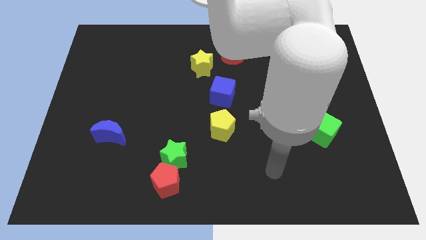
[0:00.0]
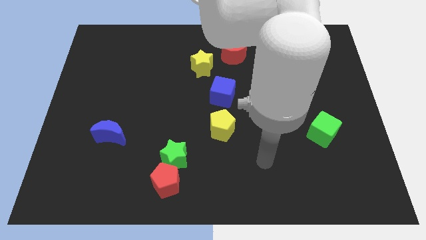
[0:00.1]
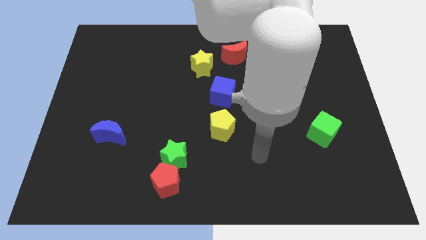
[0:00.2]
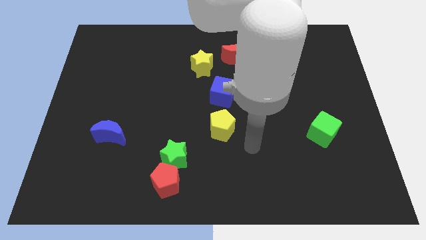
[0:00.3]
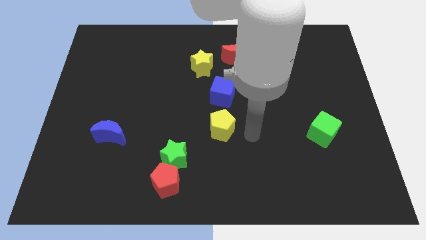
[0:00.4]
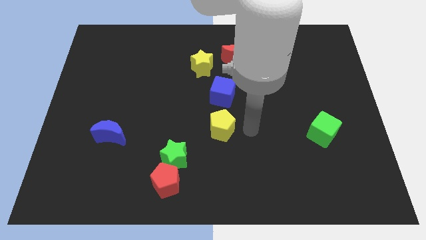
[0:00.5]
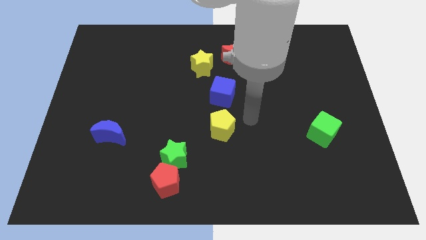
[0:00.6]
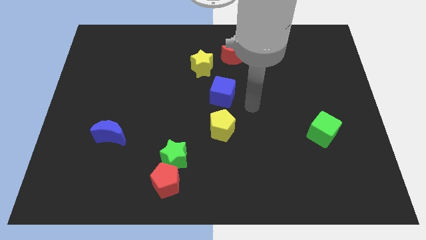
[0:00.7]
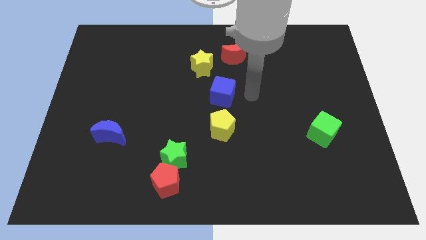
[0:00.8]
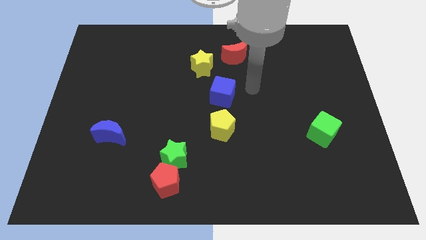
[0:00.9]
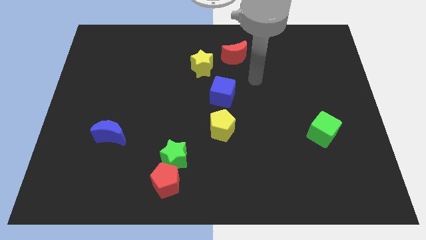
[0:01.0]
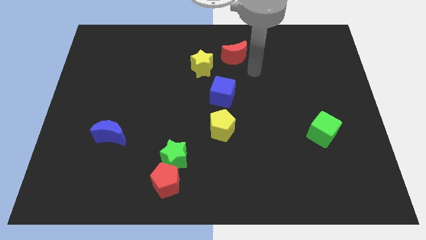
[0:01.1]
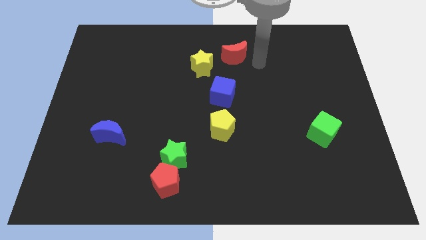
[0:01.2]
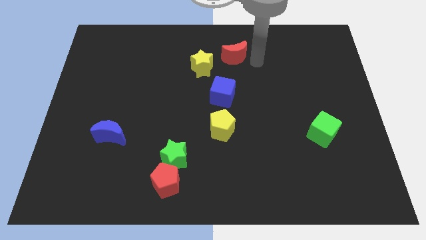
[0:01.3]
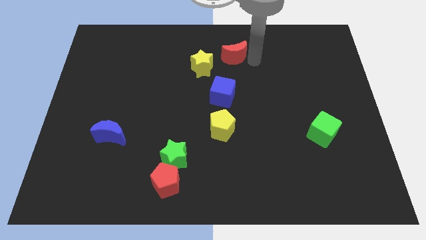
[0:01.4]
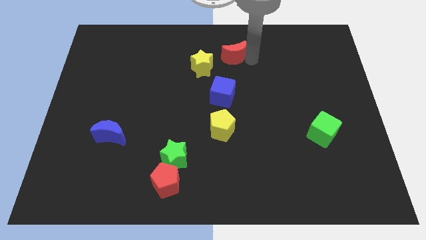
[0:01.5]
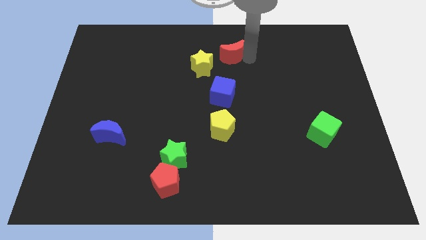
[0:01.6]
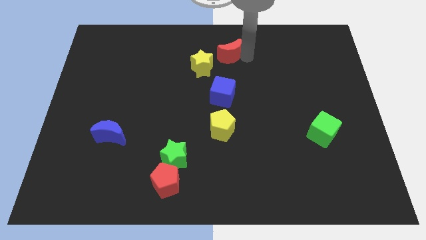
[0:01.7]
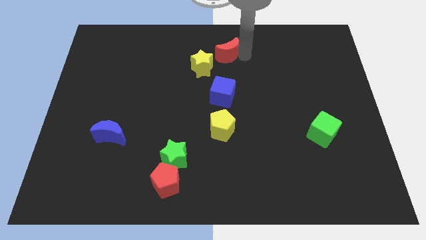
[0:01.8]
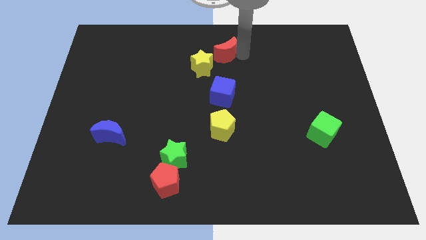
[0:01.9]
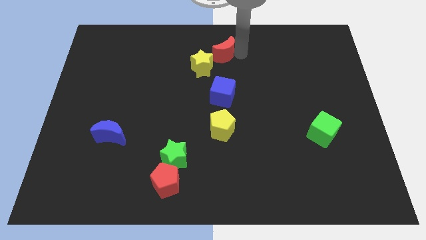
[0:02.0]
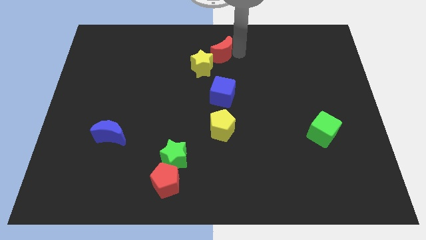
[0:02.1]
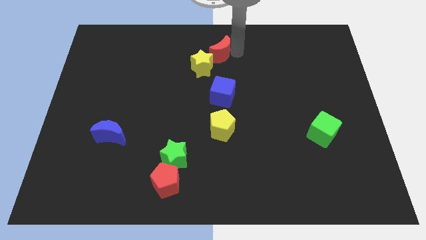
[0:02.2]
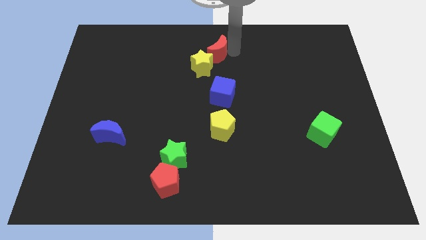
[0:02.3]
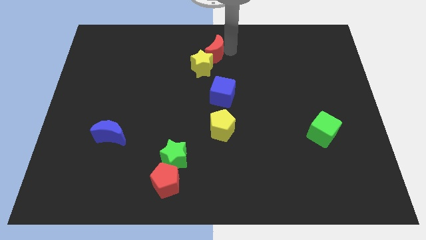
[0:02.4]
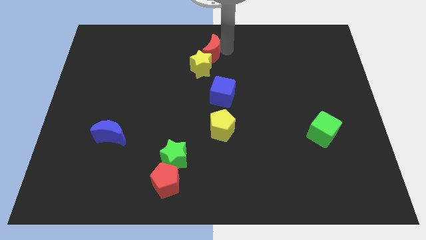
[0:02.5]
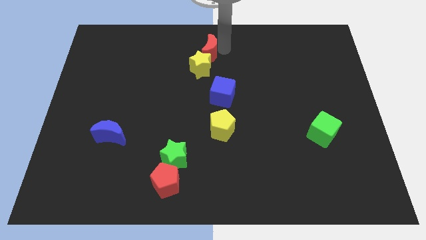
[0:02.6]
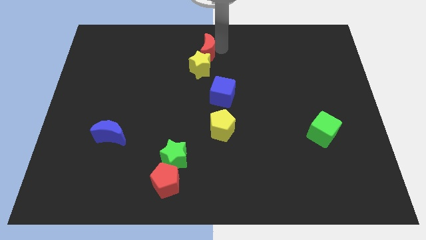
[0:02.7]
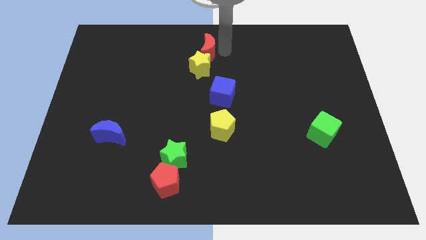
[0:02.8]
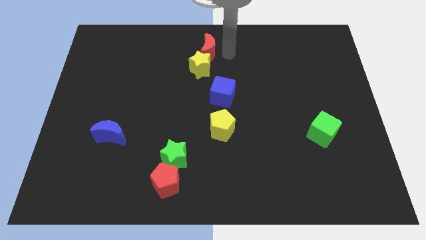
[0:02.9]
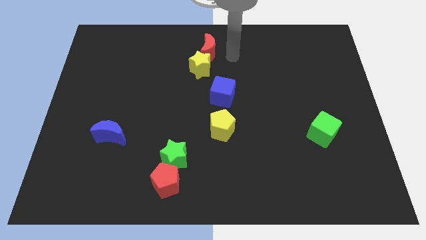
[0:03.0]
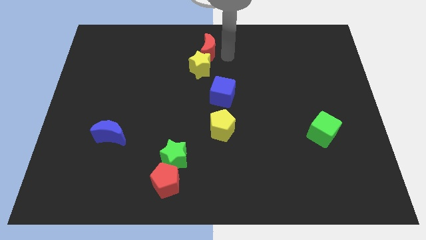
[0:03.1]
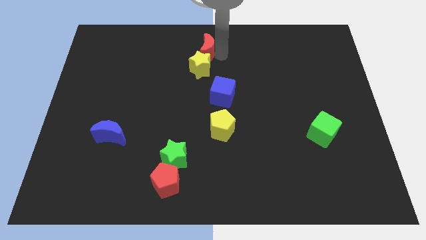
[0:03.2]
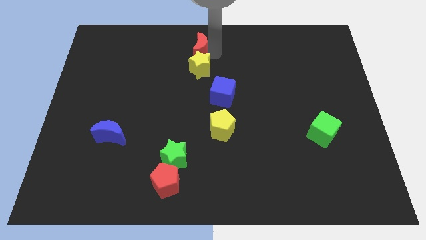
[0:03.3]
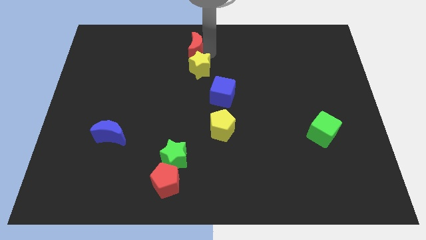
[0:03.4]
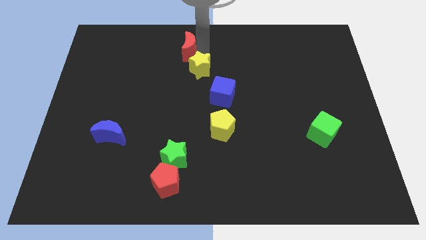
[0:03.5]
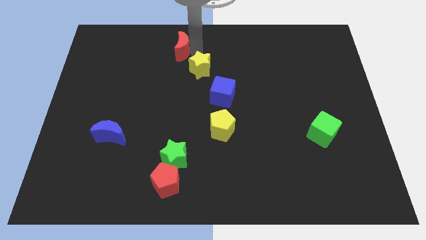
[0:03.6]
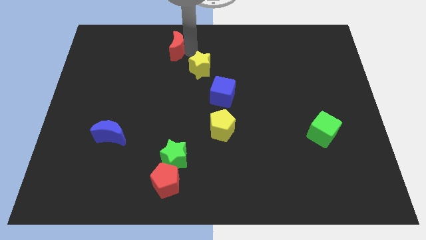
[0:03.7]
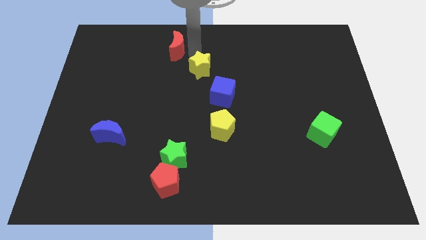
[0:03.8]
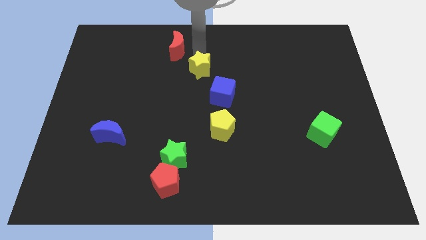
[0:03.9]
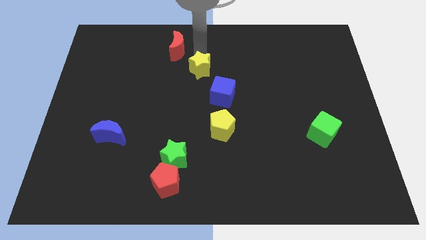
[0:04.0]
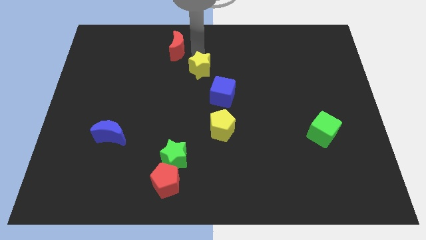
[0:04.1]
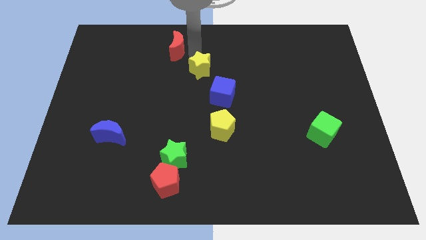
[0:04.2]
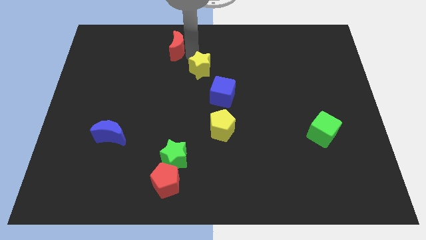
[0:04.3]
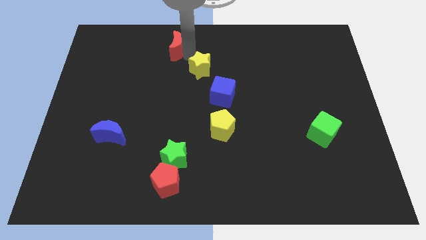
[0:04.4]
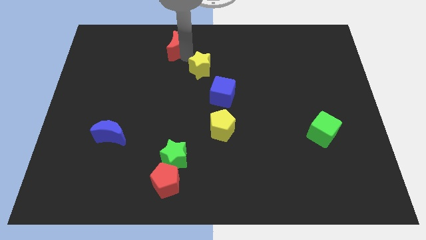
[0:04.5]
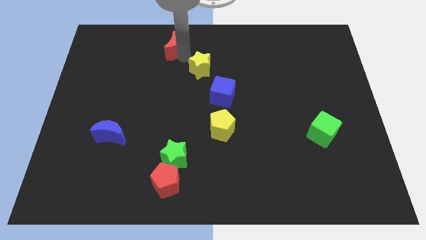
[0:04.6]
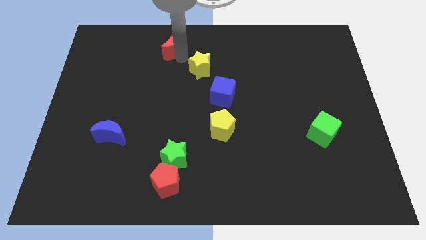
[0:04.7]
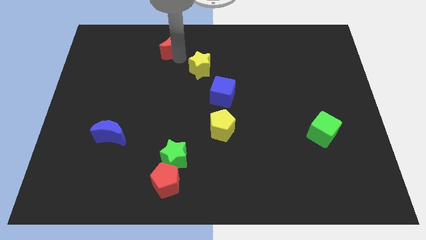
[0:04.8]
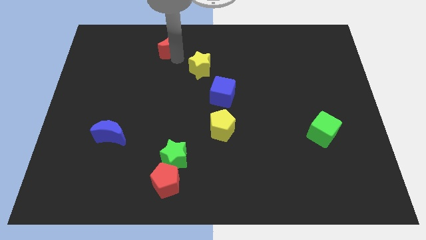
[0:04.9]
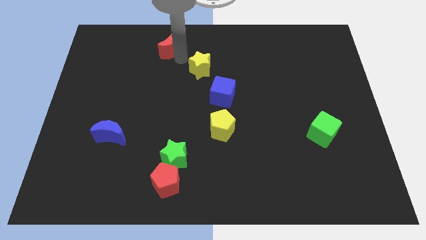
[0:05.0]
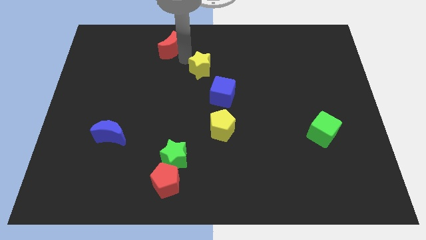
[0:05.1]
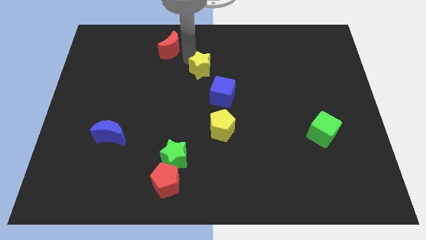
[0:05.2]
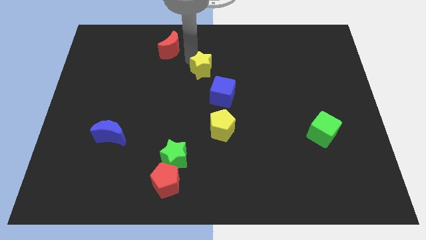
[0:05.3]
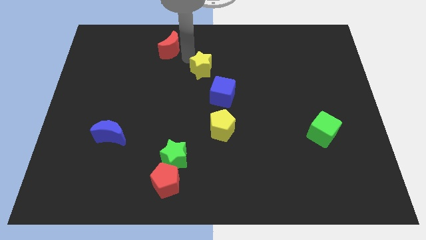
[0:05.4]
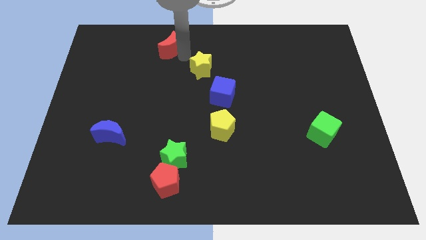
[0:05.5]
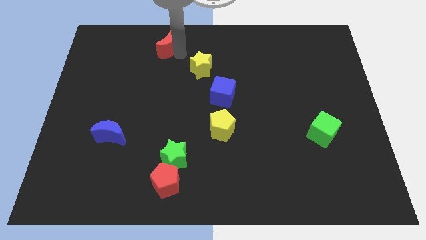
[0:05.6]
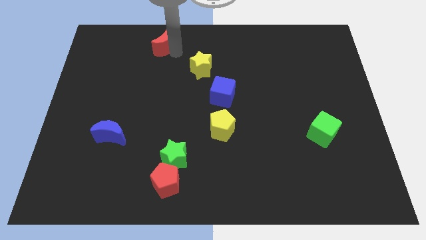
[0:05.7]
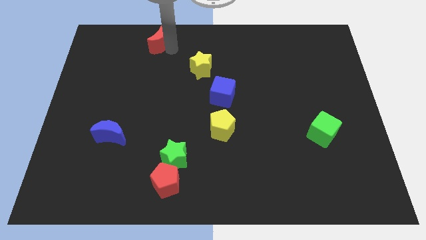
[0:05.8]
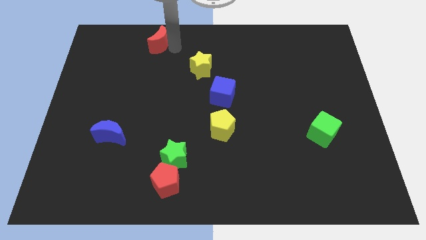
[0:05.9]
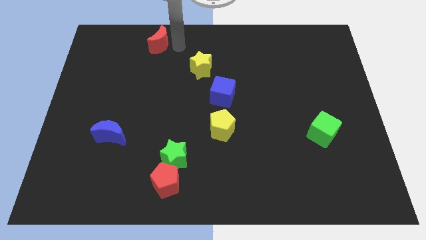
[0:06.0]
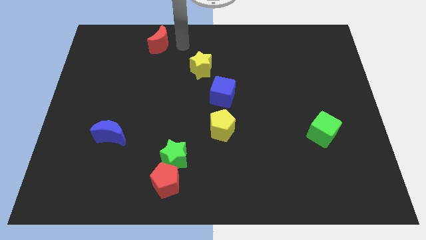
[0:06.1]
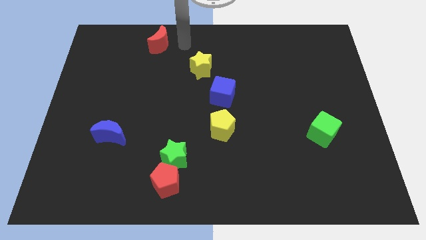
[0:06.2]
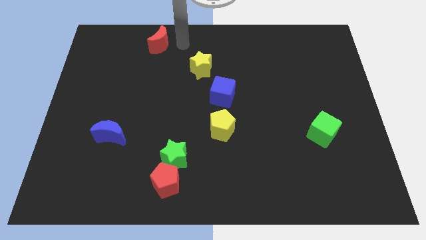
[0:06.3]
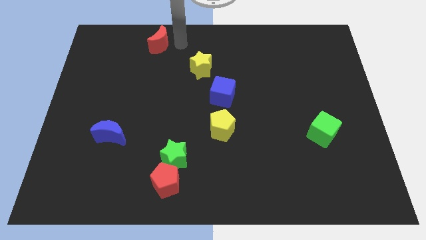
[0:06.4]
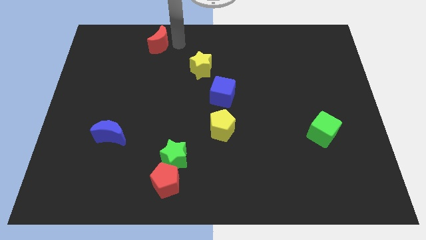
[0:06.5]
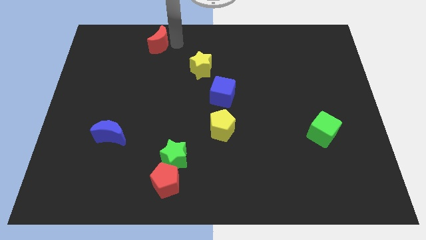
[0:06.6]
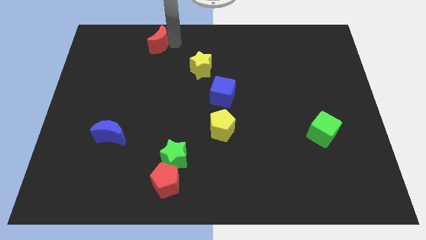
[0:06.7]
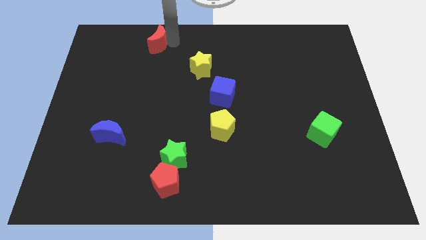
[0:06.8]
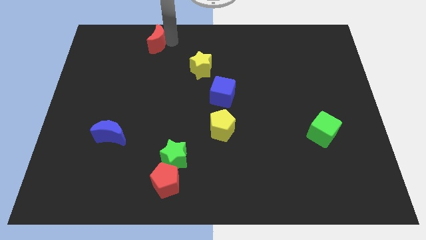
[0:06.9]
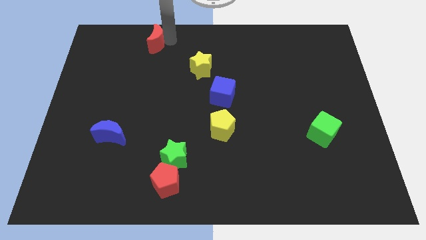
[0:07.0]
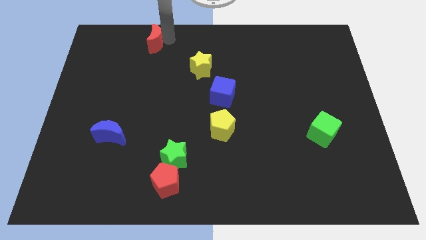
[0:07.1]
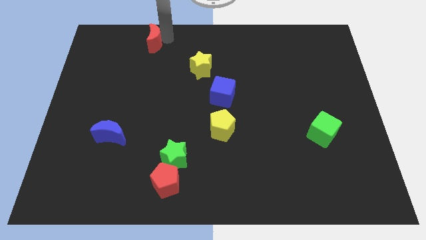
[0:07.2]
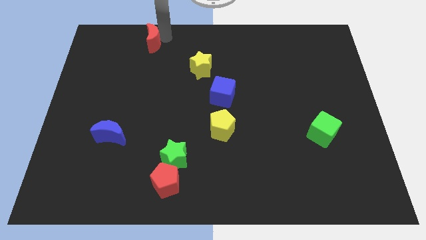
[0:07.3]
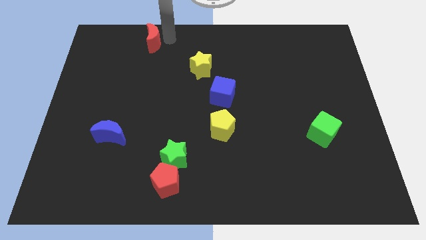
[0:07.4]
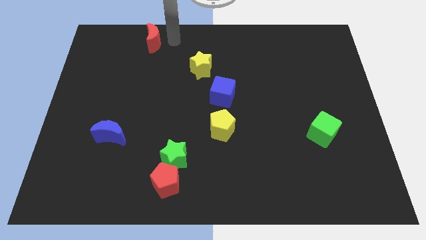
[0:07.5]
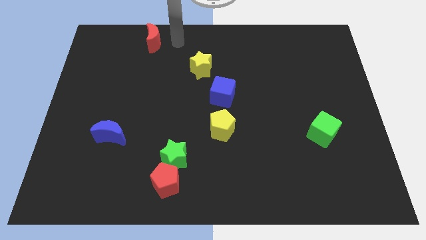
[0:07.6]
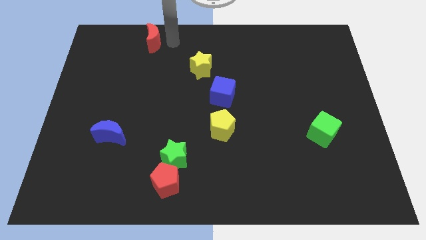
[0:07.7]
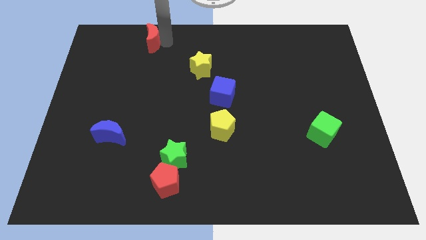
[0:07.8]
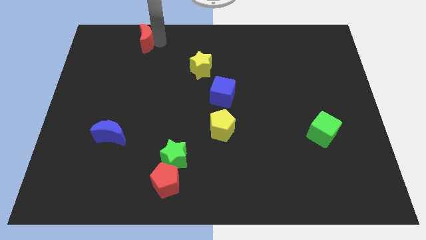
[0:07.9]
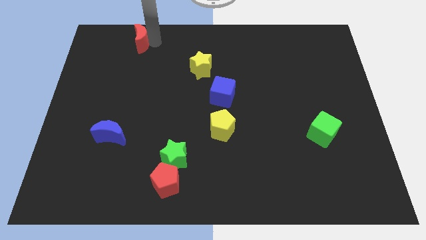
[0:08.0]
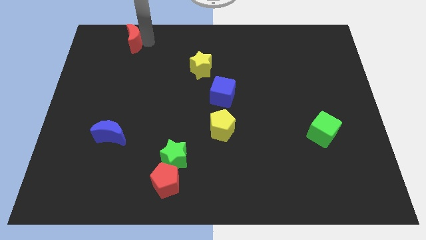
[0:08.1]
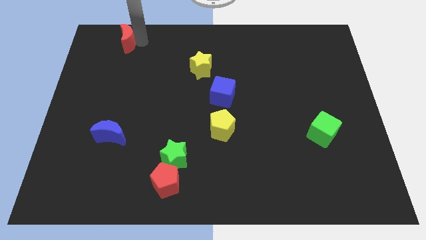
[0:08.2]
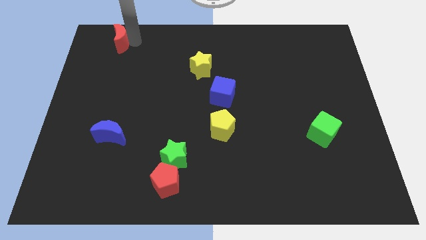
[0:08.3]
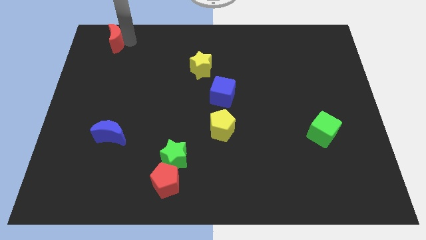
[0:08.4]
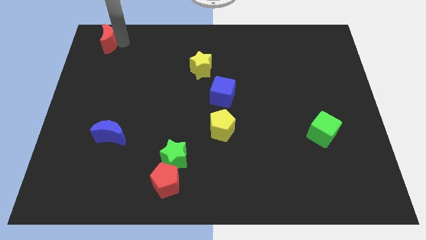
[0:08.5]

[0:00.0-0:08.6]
push the red moon to the upper left corner

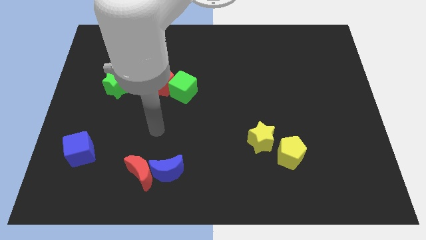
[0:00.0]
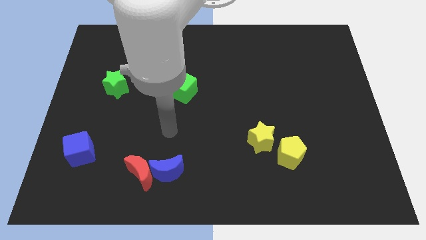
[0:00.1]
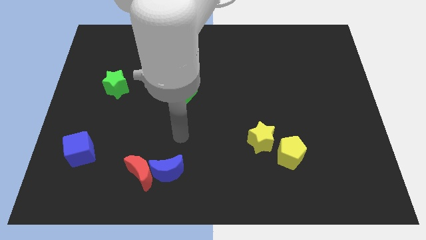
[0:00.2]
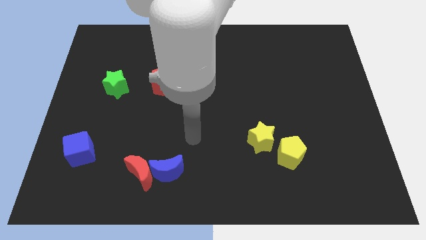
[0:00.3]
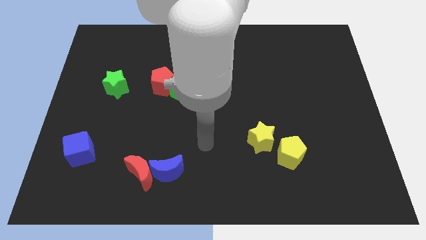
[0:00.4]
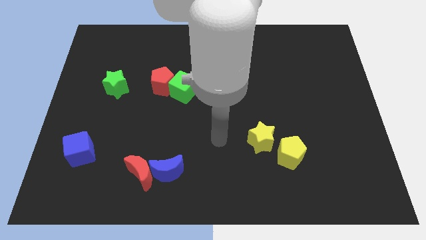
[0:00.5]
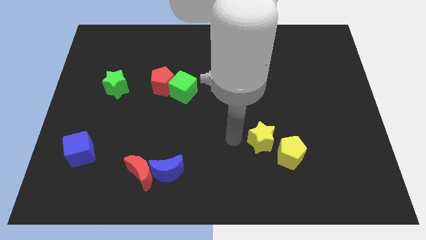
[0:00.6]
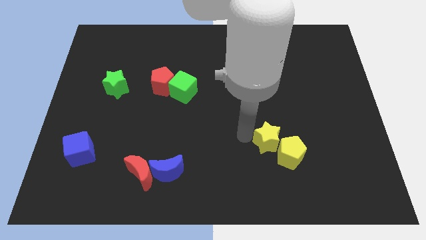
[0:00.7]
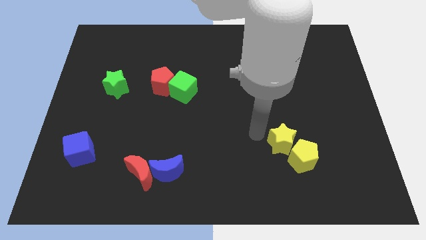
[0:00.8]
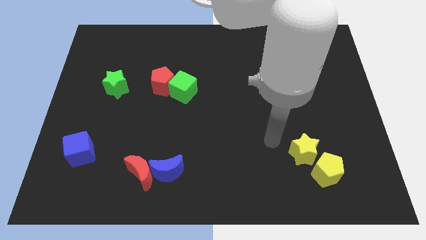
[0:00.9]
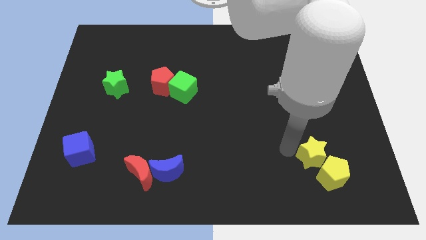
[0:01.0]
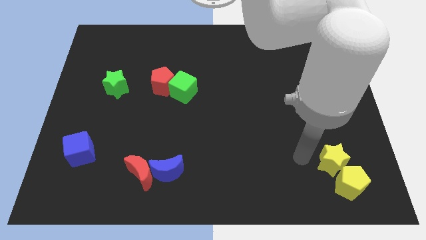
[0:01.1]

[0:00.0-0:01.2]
slide the yellow pentagon to the bottom right corner
